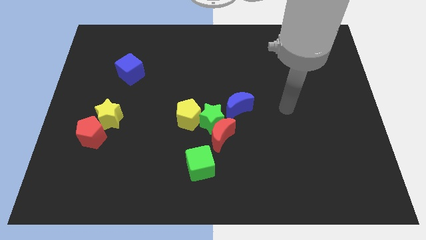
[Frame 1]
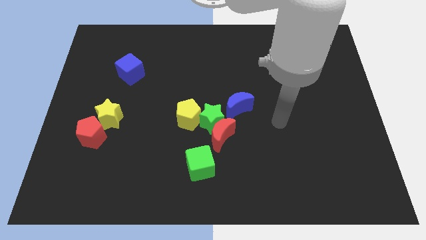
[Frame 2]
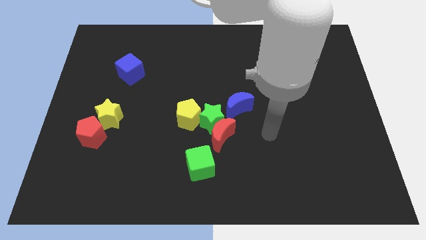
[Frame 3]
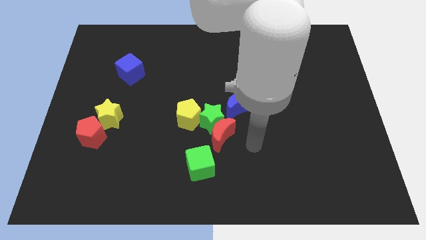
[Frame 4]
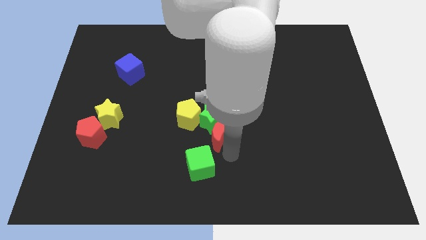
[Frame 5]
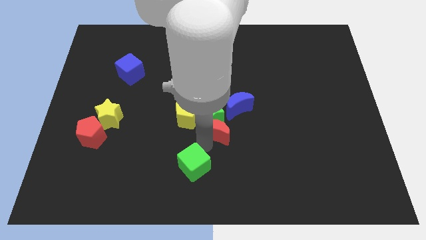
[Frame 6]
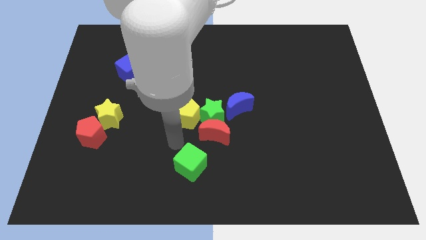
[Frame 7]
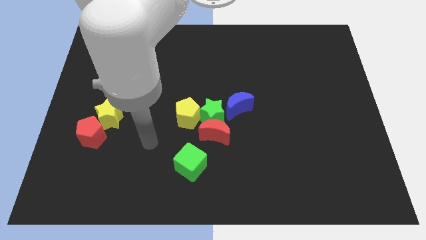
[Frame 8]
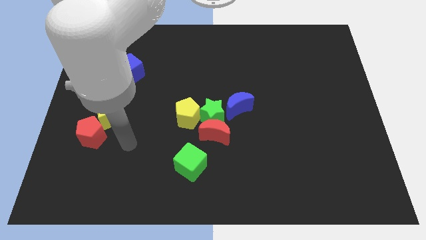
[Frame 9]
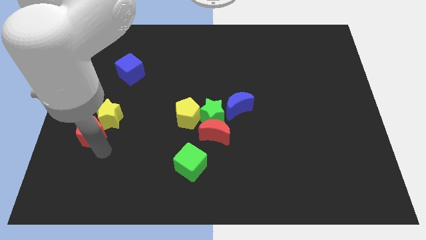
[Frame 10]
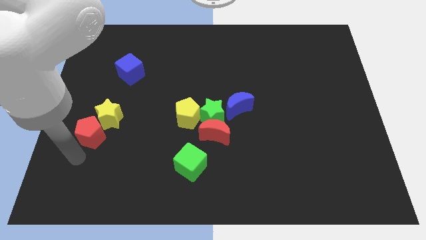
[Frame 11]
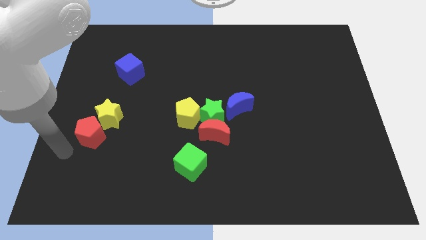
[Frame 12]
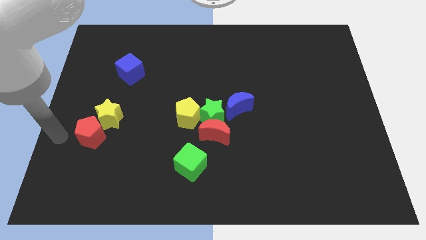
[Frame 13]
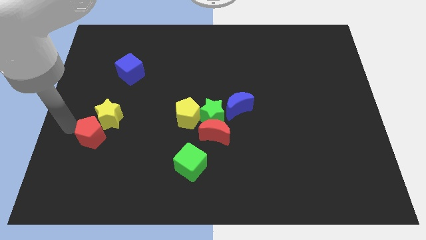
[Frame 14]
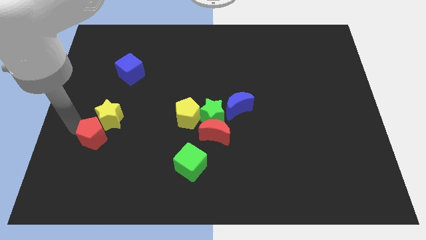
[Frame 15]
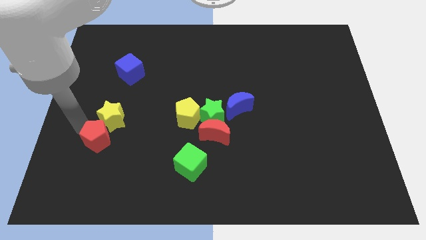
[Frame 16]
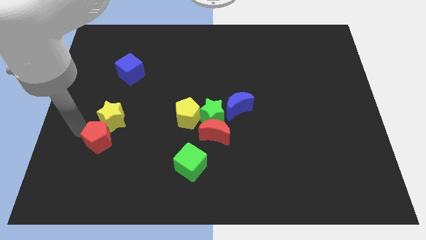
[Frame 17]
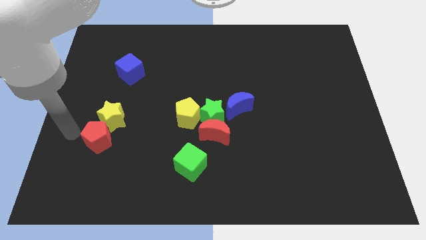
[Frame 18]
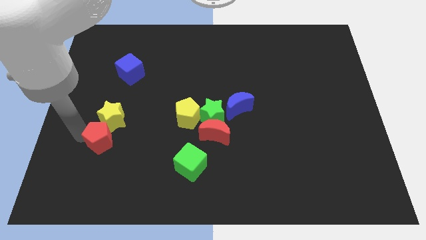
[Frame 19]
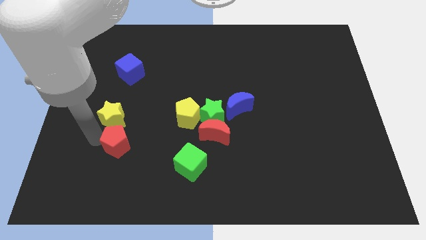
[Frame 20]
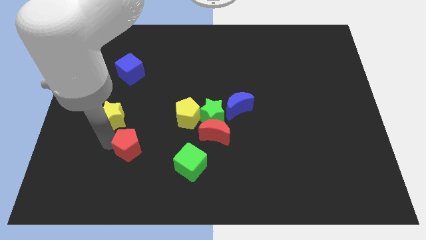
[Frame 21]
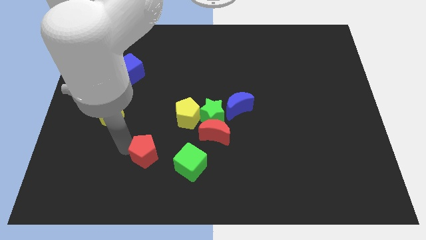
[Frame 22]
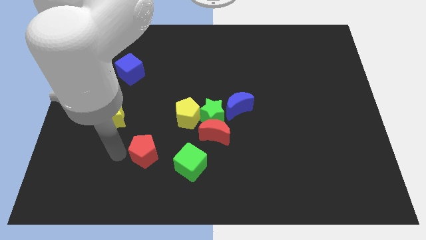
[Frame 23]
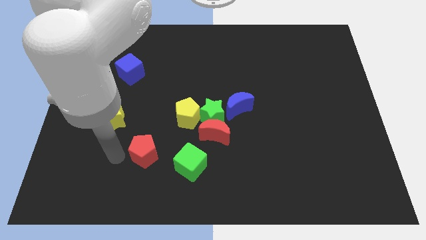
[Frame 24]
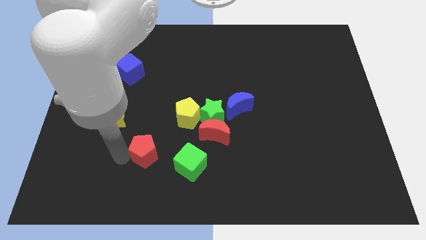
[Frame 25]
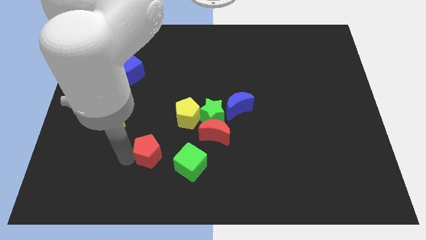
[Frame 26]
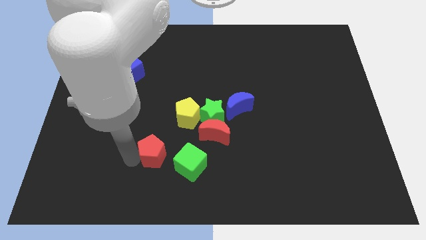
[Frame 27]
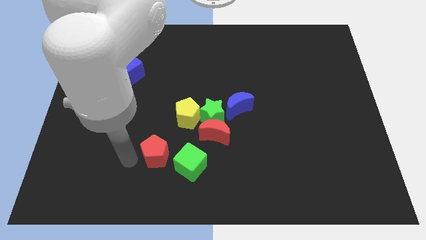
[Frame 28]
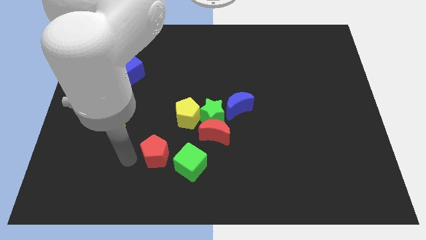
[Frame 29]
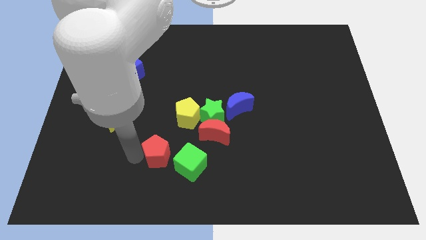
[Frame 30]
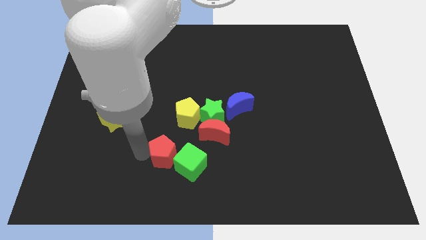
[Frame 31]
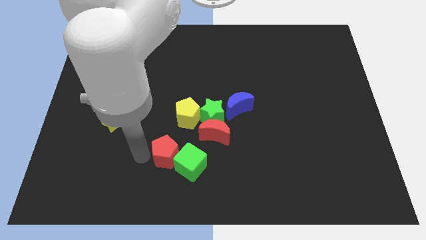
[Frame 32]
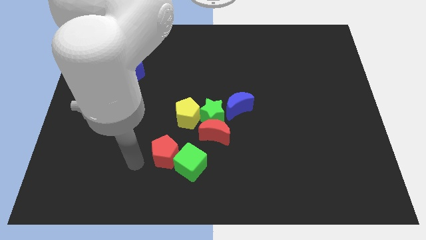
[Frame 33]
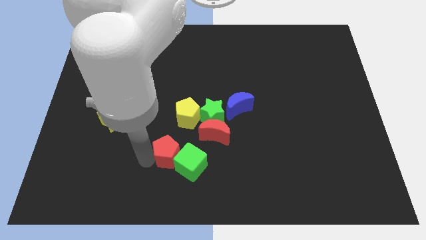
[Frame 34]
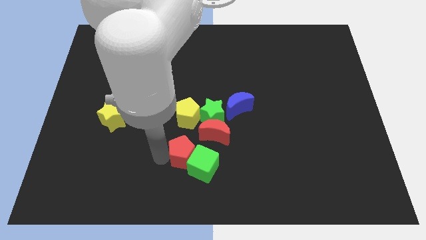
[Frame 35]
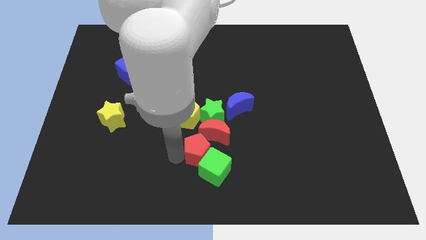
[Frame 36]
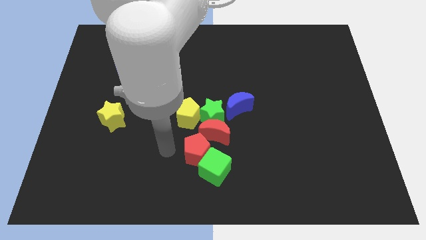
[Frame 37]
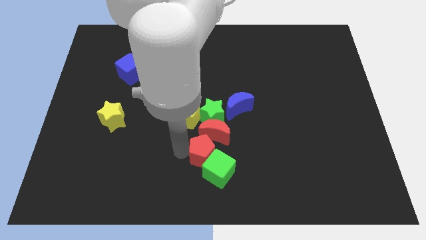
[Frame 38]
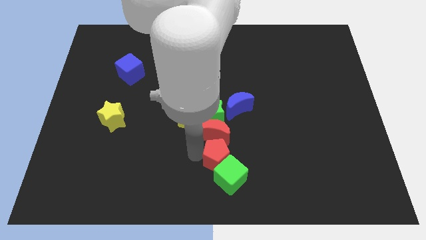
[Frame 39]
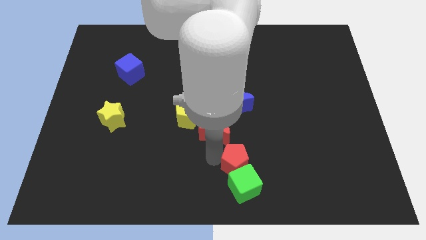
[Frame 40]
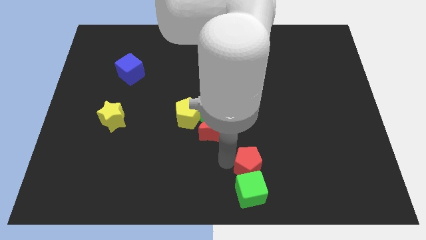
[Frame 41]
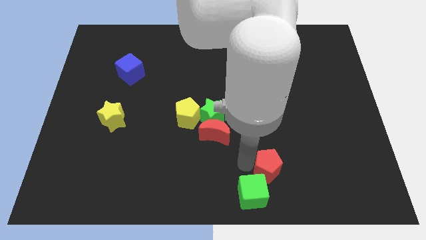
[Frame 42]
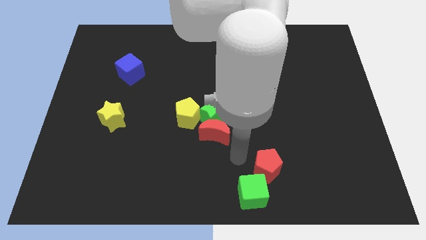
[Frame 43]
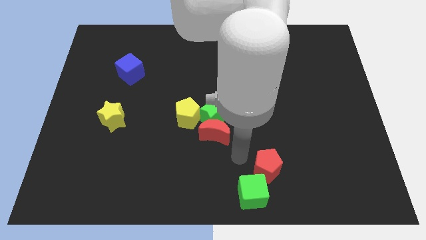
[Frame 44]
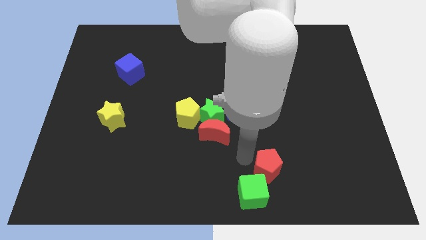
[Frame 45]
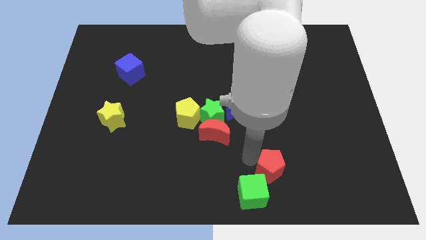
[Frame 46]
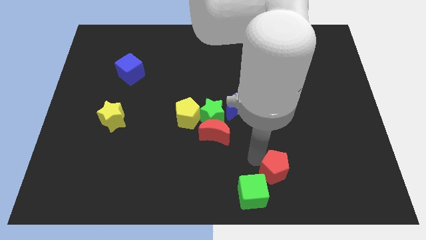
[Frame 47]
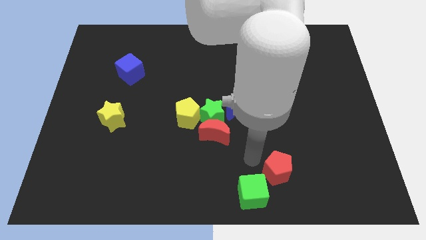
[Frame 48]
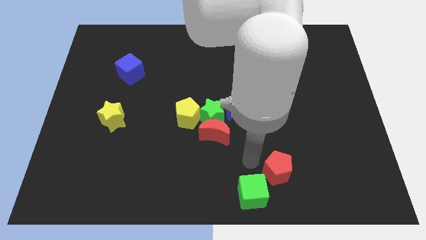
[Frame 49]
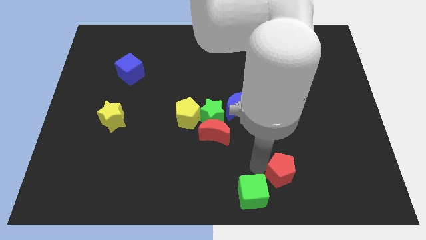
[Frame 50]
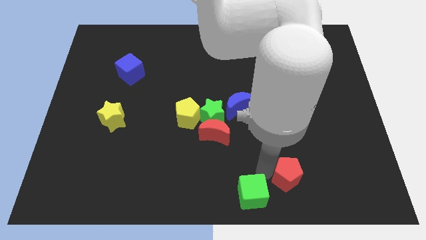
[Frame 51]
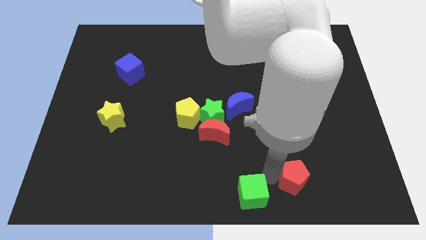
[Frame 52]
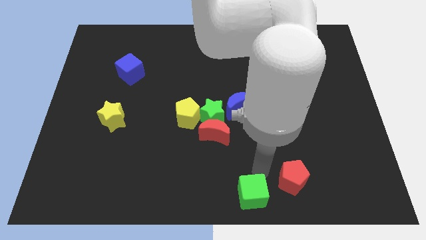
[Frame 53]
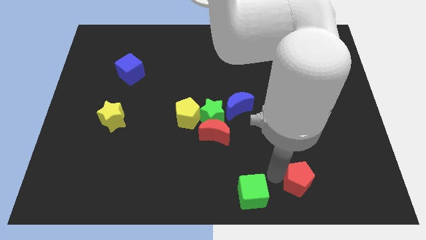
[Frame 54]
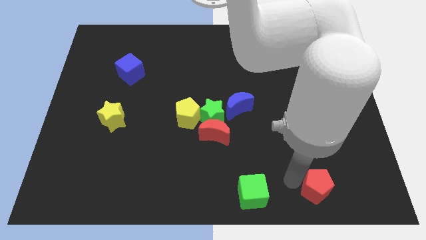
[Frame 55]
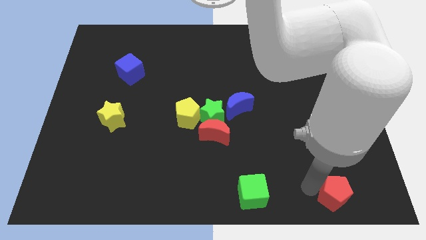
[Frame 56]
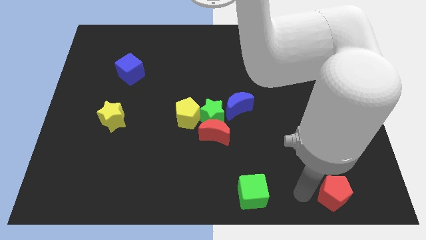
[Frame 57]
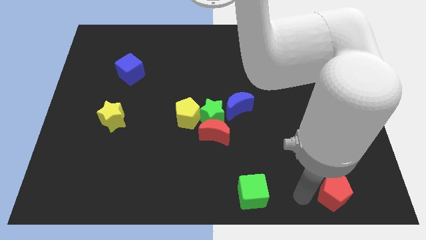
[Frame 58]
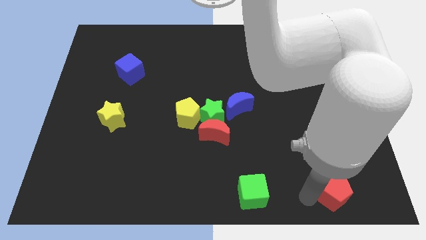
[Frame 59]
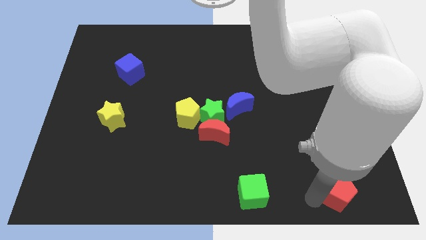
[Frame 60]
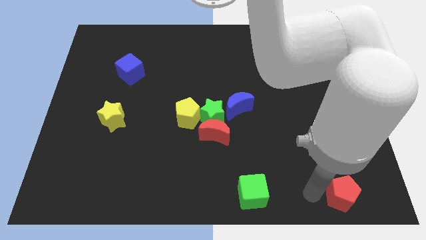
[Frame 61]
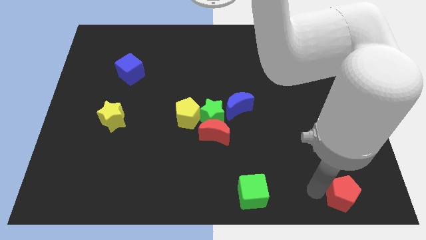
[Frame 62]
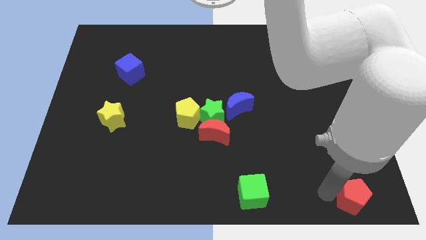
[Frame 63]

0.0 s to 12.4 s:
push the red pentagon to the bottom right
